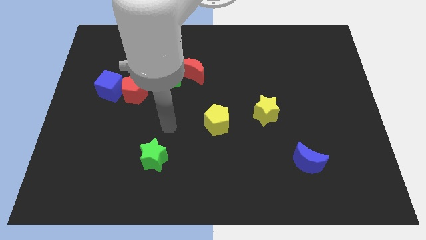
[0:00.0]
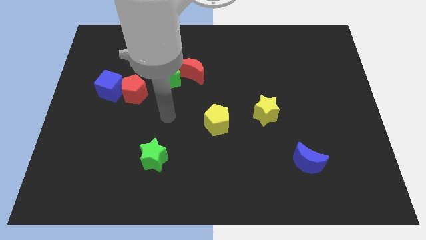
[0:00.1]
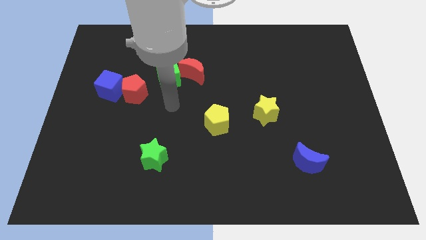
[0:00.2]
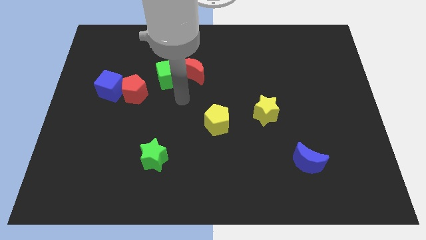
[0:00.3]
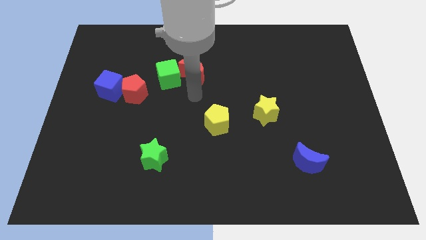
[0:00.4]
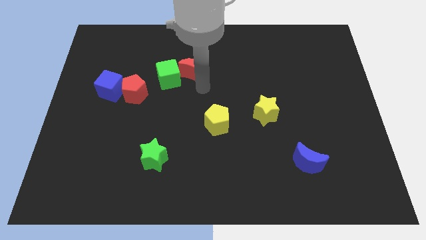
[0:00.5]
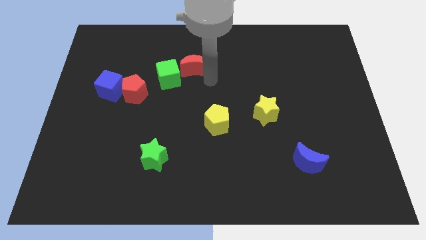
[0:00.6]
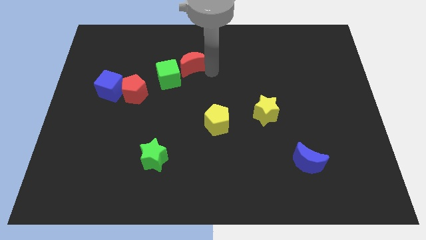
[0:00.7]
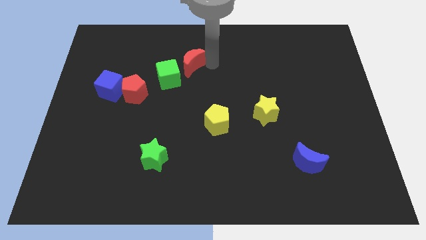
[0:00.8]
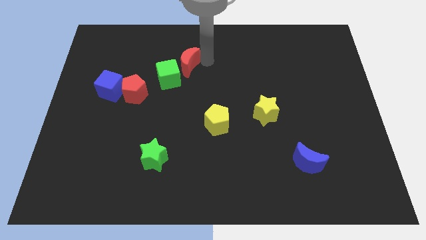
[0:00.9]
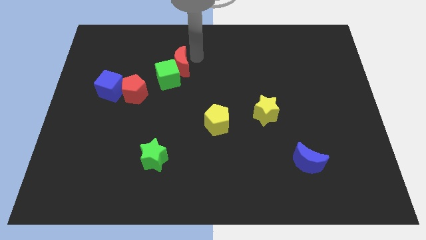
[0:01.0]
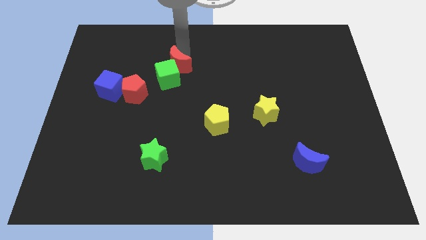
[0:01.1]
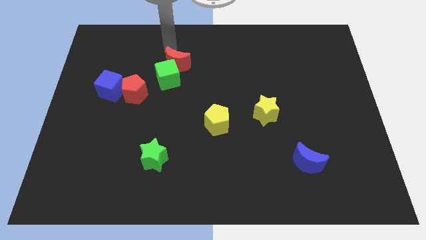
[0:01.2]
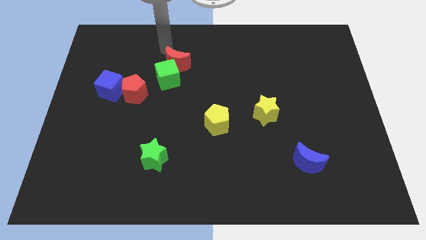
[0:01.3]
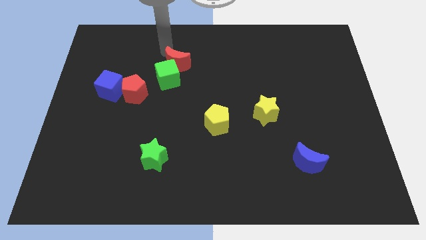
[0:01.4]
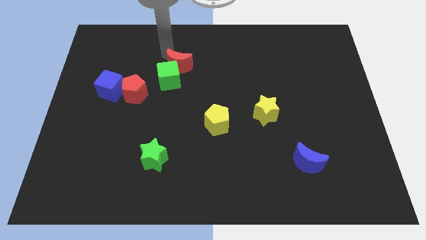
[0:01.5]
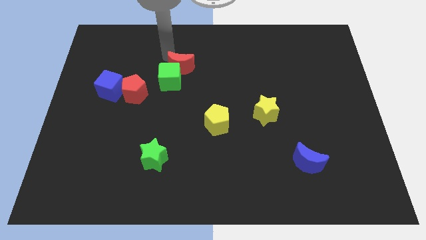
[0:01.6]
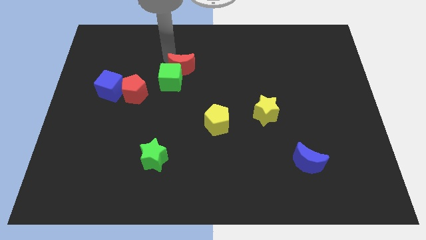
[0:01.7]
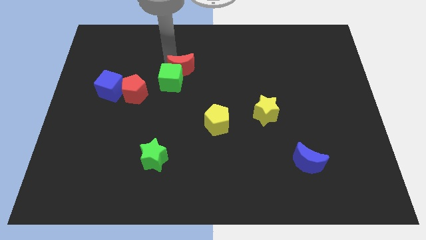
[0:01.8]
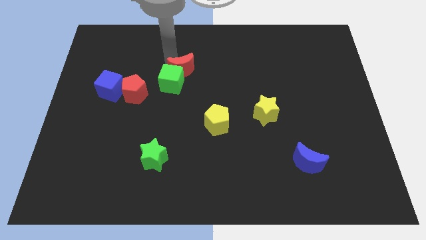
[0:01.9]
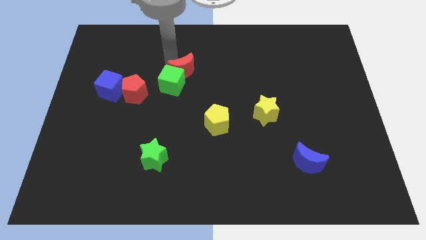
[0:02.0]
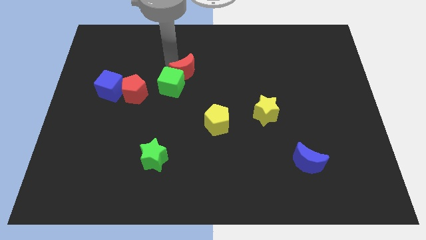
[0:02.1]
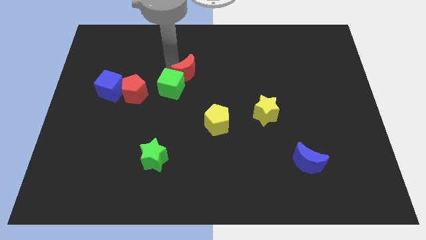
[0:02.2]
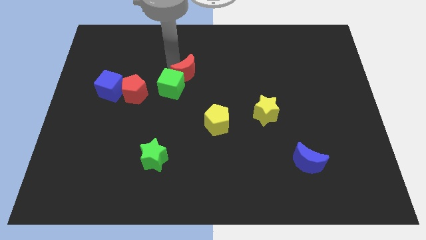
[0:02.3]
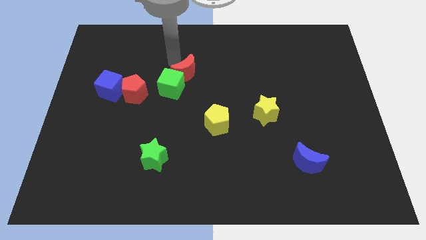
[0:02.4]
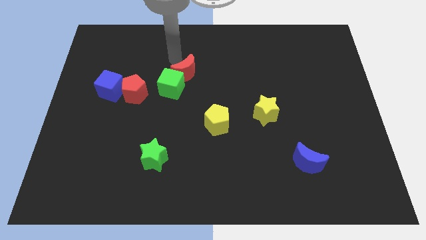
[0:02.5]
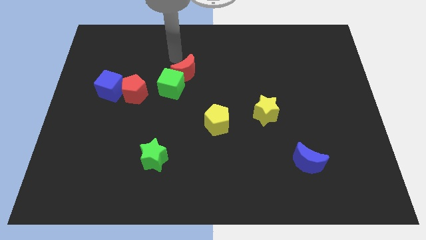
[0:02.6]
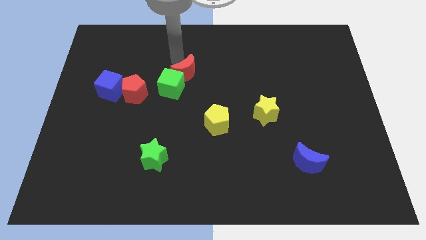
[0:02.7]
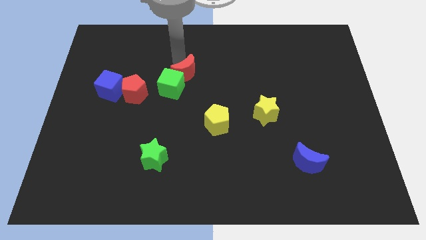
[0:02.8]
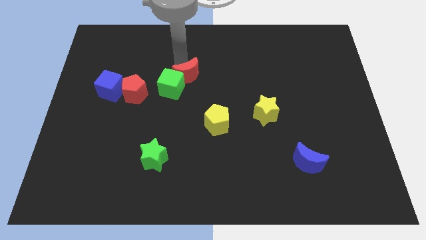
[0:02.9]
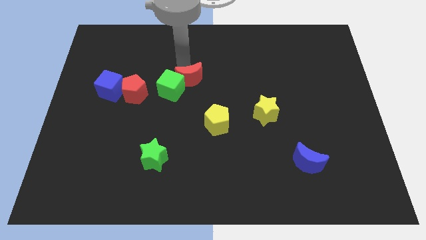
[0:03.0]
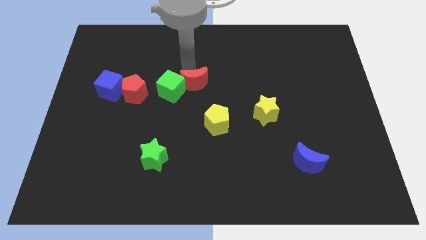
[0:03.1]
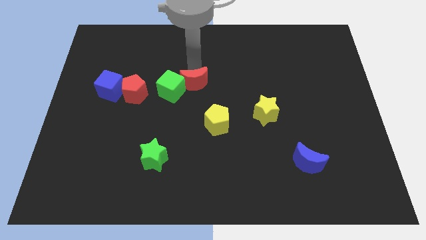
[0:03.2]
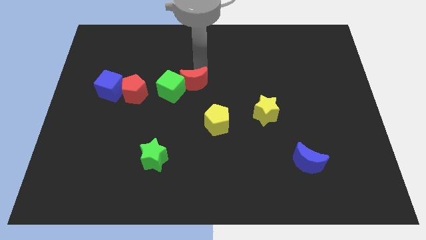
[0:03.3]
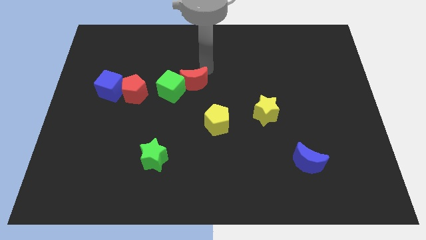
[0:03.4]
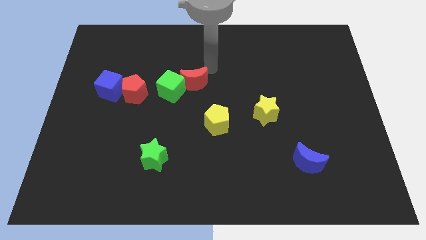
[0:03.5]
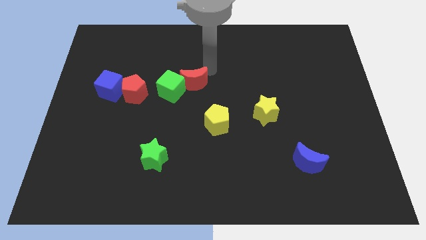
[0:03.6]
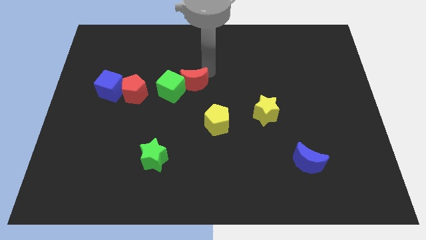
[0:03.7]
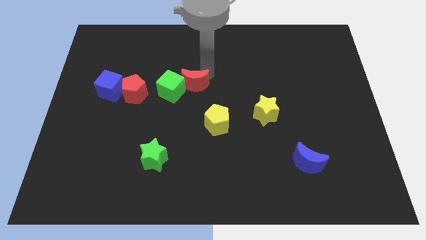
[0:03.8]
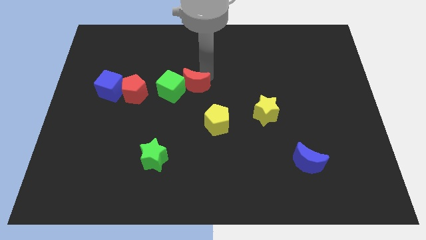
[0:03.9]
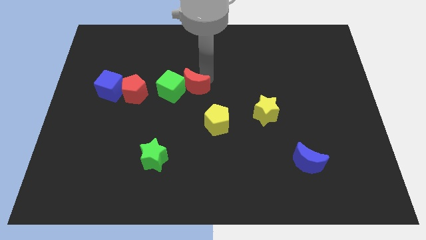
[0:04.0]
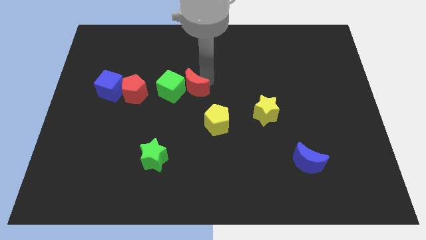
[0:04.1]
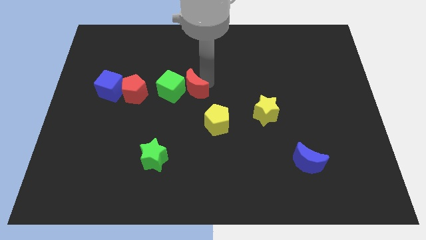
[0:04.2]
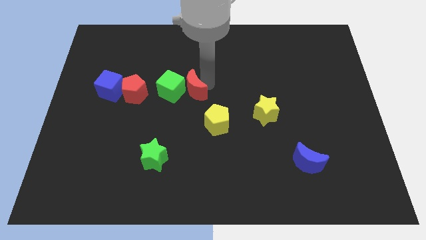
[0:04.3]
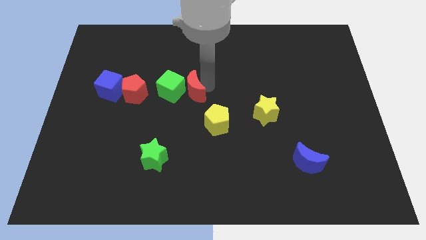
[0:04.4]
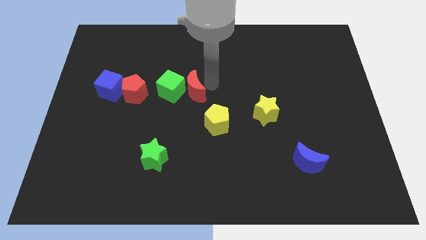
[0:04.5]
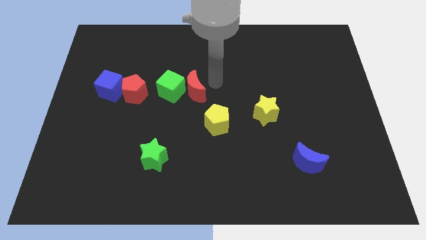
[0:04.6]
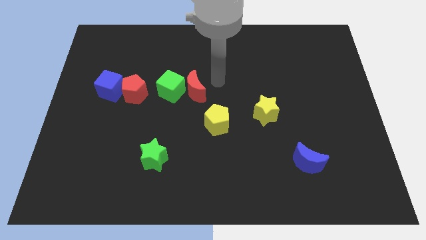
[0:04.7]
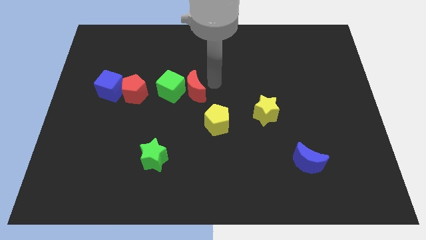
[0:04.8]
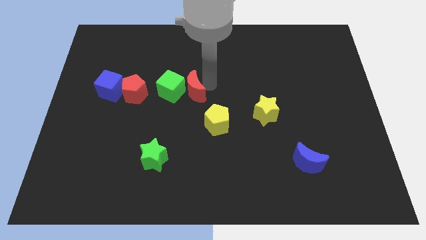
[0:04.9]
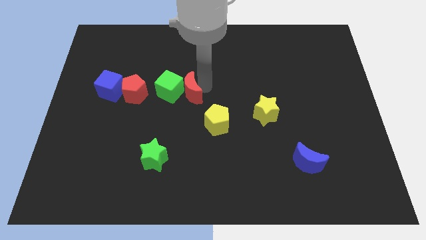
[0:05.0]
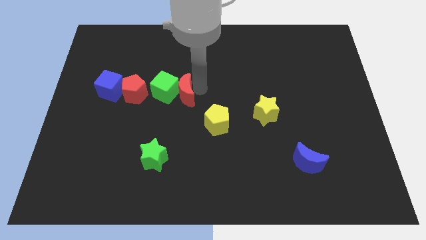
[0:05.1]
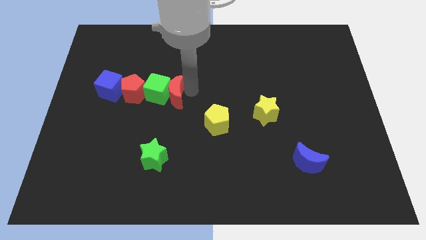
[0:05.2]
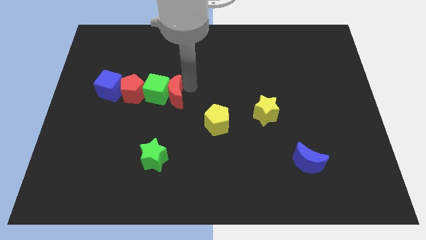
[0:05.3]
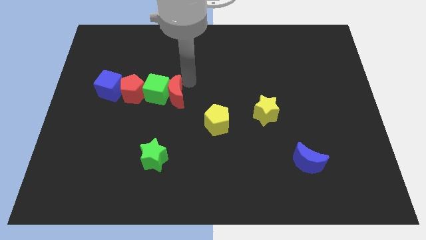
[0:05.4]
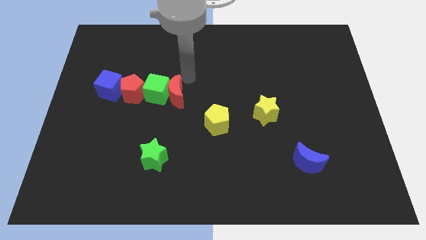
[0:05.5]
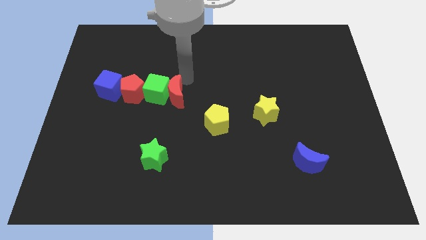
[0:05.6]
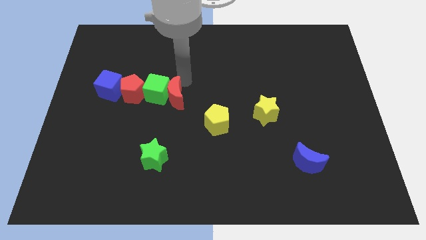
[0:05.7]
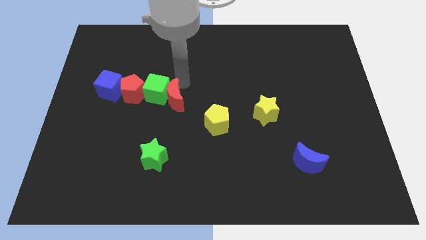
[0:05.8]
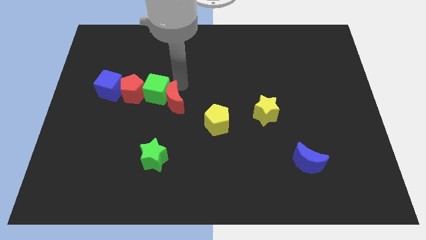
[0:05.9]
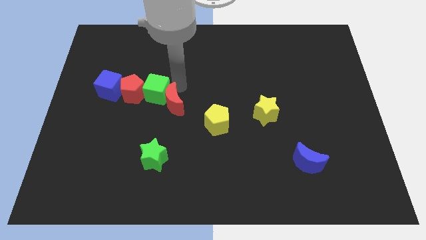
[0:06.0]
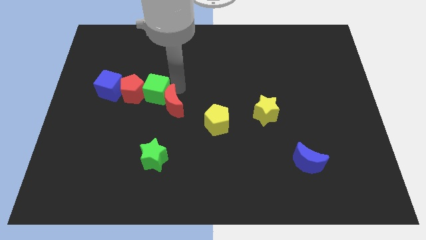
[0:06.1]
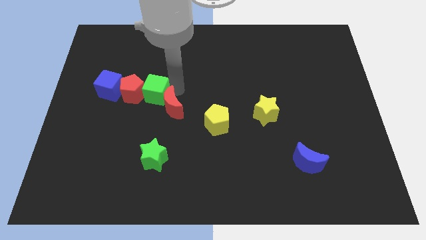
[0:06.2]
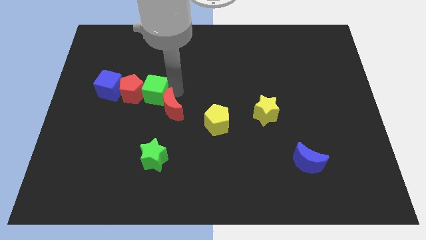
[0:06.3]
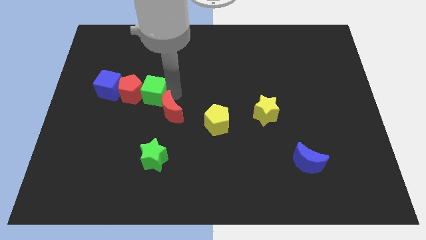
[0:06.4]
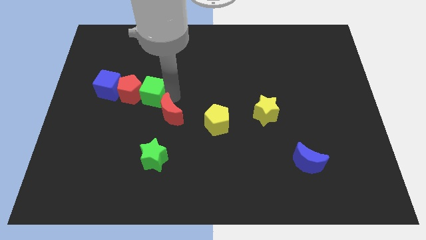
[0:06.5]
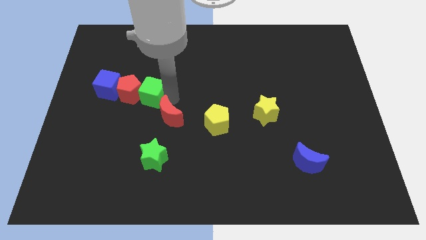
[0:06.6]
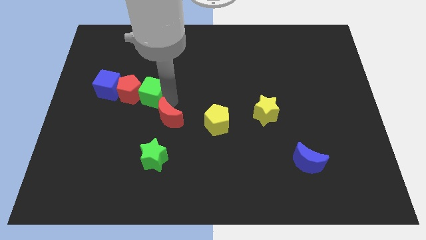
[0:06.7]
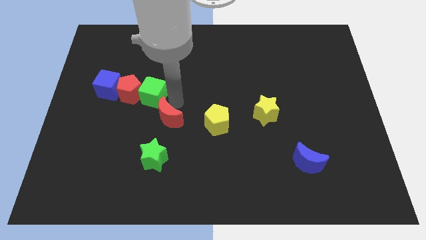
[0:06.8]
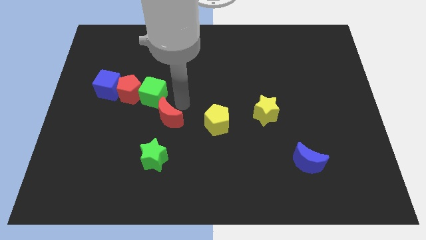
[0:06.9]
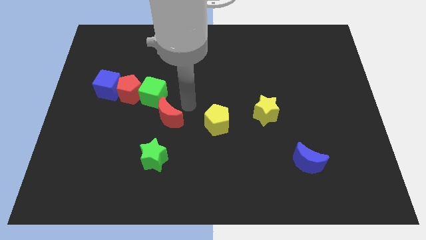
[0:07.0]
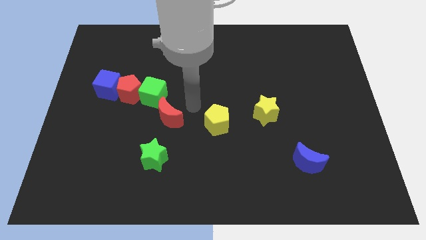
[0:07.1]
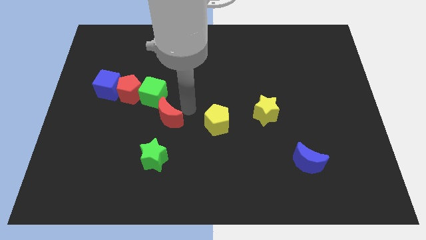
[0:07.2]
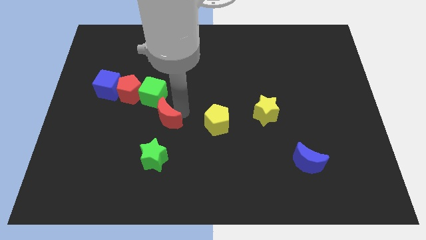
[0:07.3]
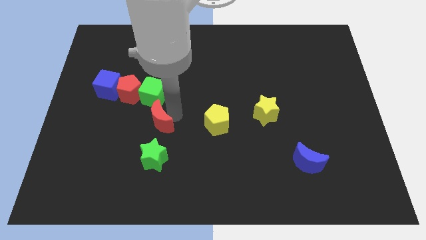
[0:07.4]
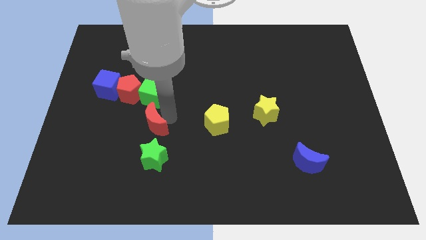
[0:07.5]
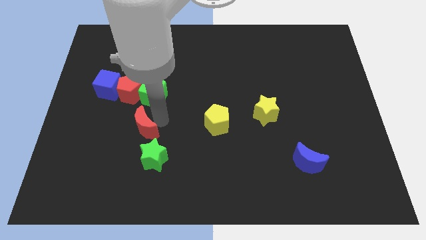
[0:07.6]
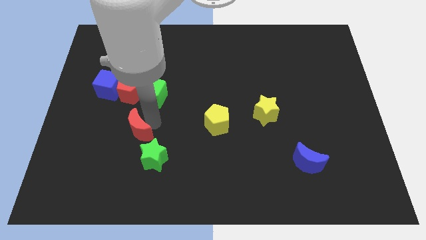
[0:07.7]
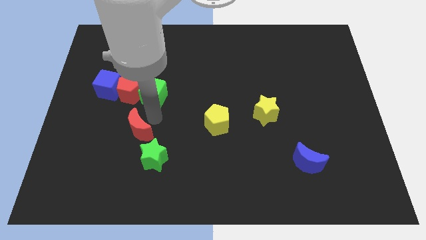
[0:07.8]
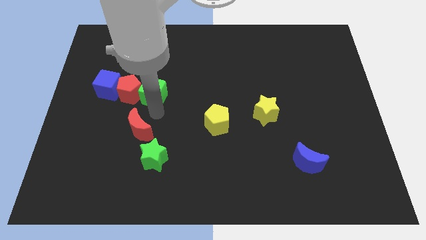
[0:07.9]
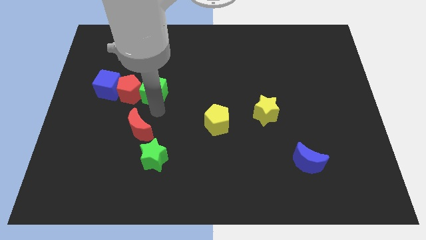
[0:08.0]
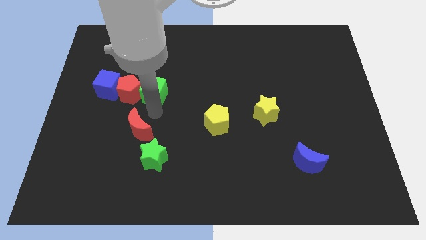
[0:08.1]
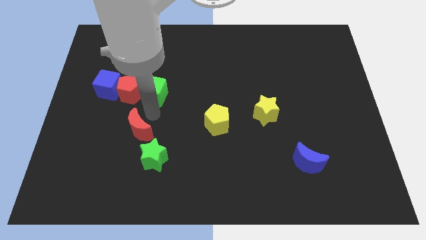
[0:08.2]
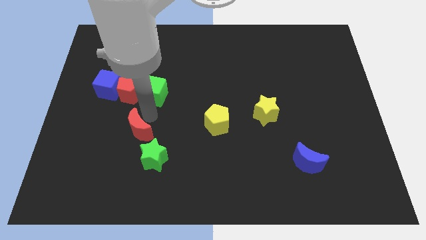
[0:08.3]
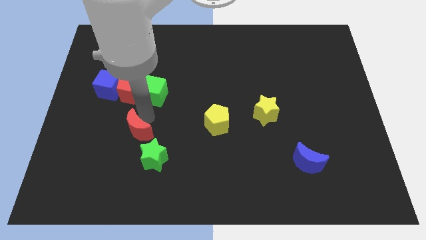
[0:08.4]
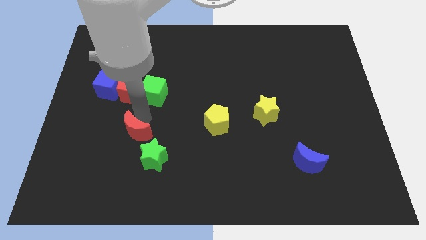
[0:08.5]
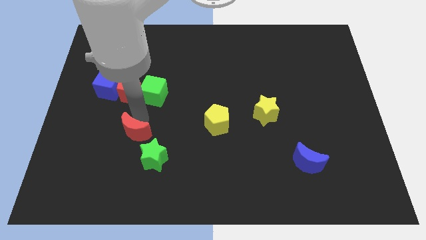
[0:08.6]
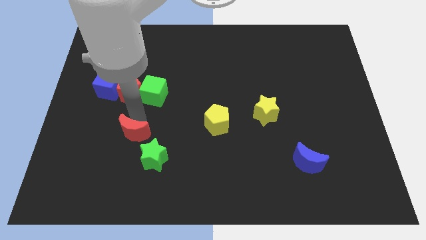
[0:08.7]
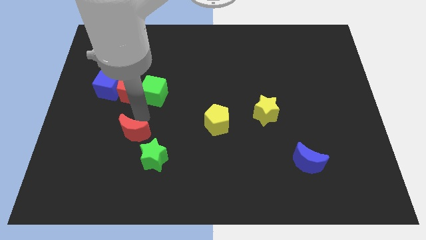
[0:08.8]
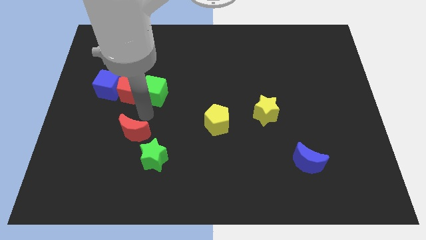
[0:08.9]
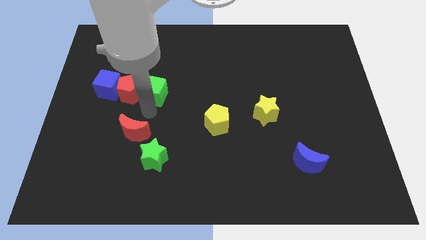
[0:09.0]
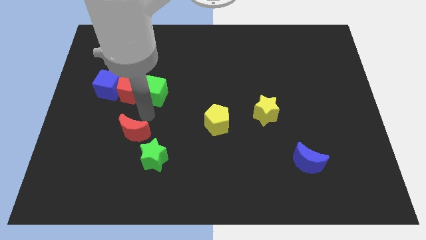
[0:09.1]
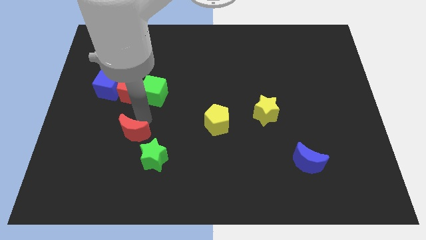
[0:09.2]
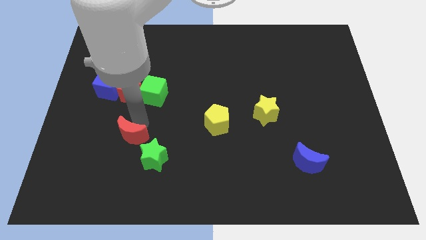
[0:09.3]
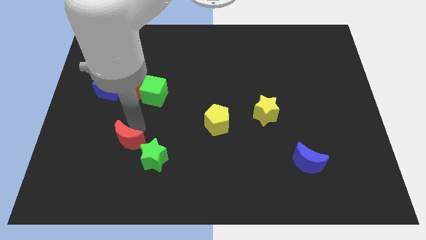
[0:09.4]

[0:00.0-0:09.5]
slide the red moon to the left of the green star
